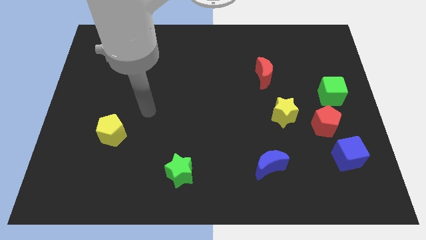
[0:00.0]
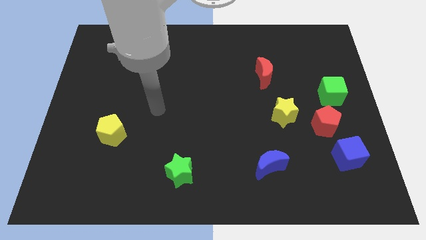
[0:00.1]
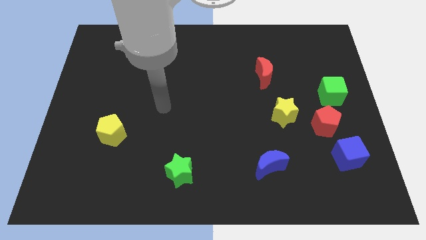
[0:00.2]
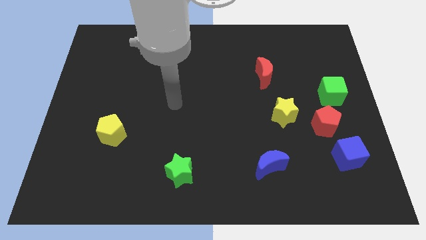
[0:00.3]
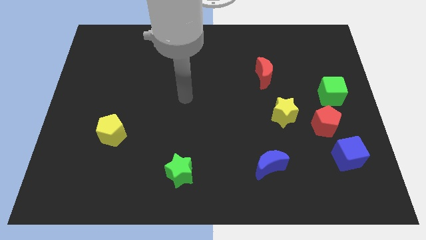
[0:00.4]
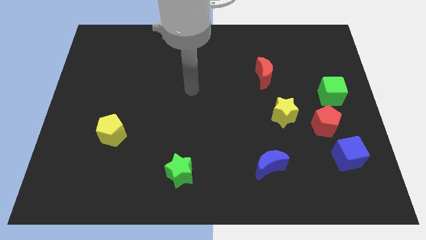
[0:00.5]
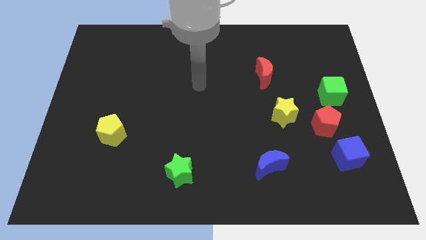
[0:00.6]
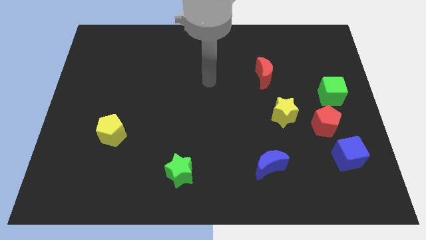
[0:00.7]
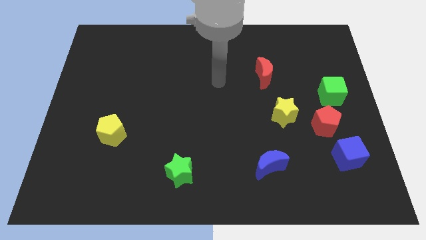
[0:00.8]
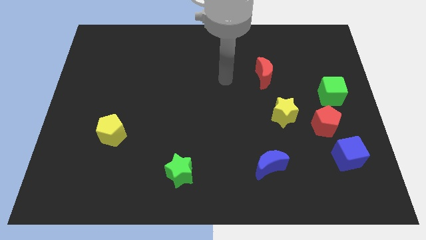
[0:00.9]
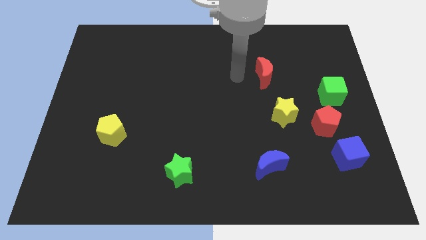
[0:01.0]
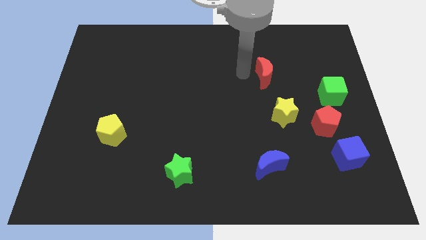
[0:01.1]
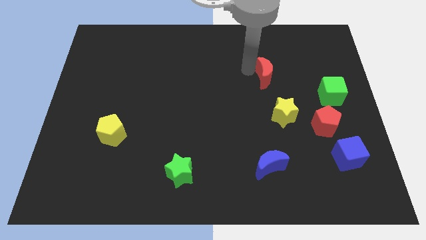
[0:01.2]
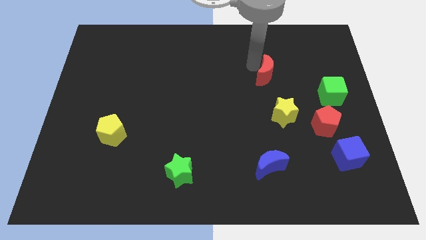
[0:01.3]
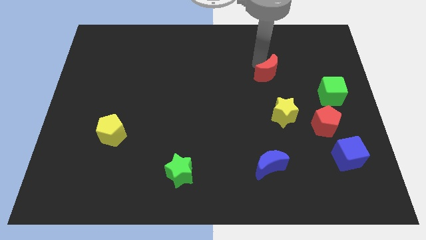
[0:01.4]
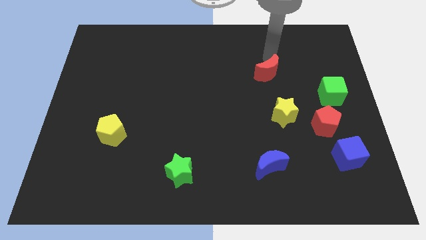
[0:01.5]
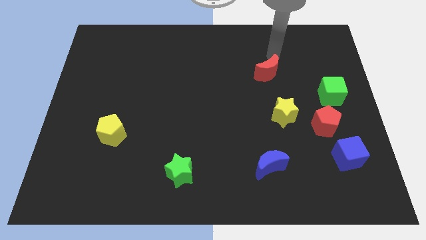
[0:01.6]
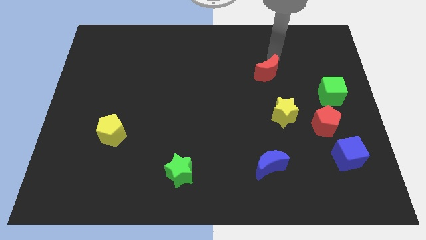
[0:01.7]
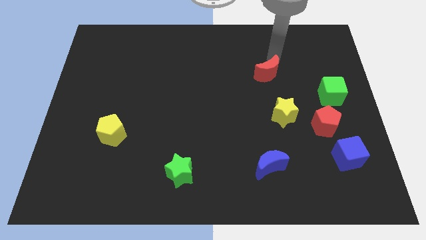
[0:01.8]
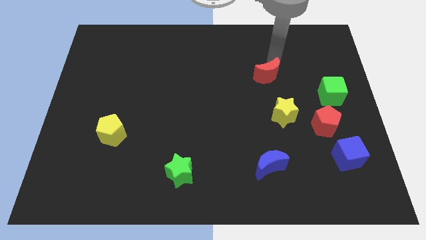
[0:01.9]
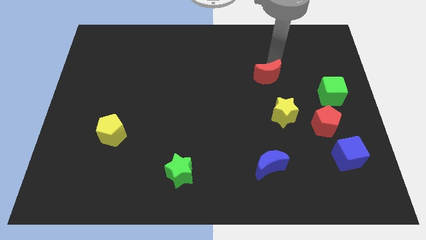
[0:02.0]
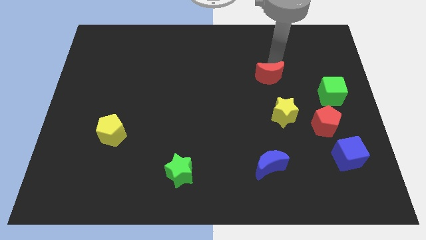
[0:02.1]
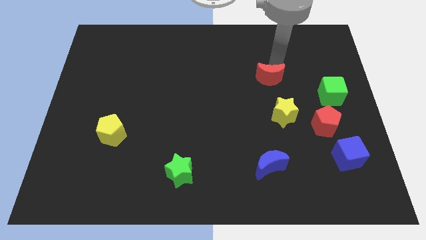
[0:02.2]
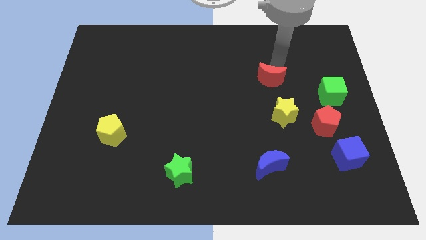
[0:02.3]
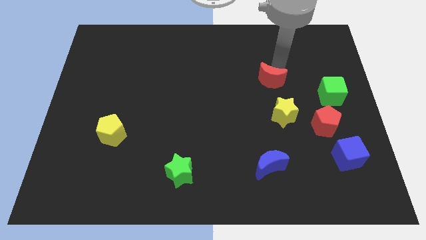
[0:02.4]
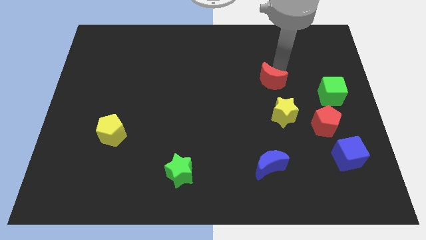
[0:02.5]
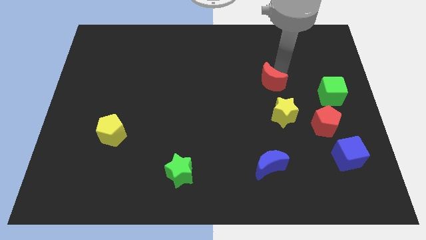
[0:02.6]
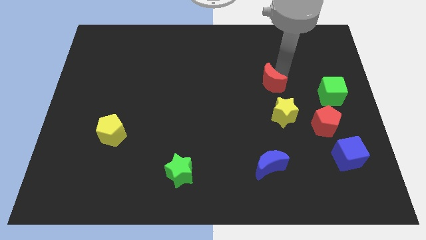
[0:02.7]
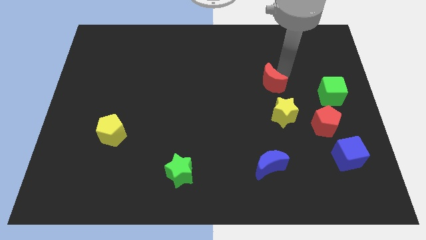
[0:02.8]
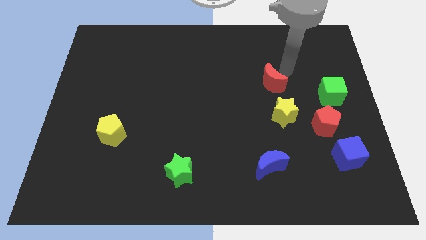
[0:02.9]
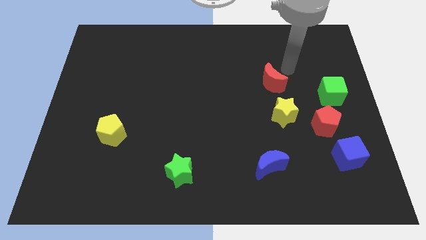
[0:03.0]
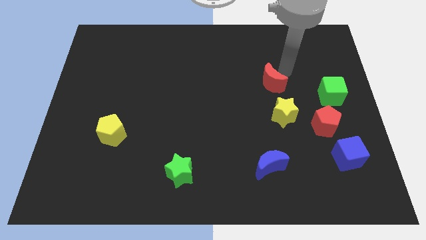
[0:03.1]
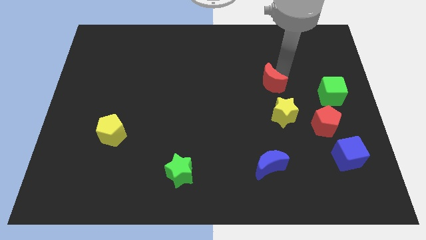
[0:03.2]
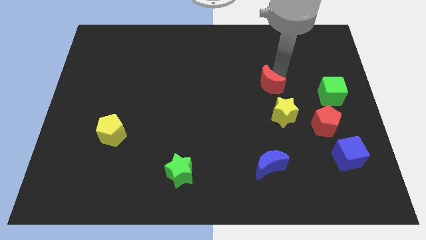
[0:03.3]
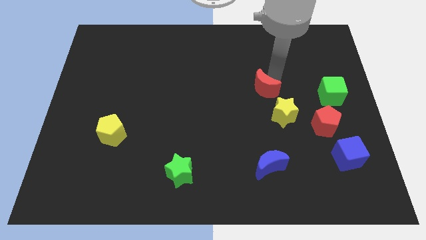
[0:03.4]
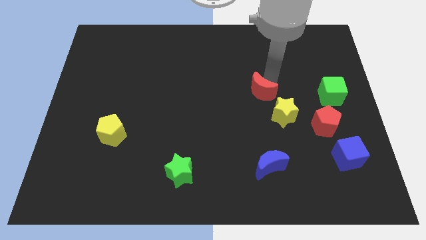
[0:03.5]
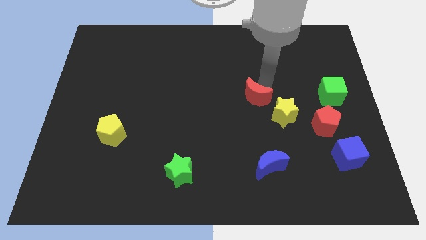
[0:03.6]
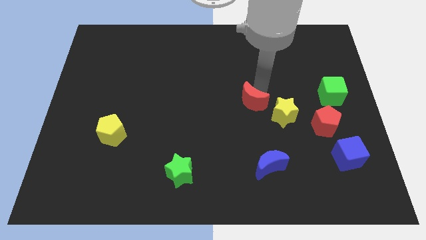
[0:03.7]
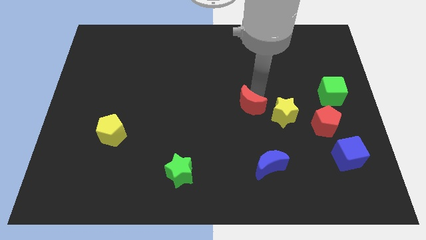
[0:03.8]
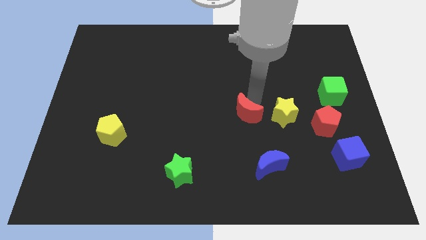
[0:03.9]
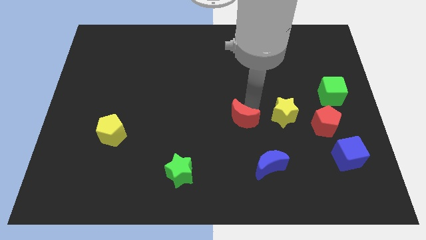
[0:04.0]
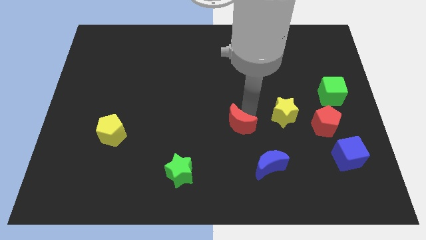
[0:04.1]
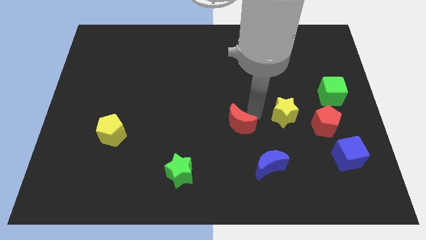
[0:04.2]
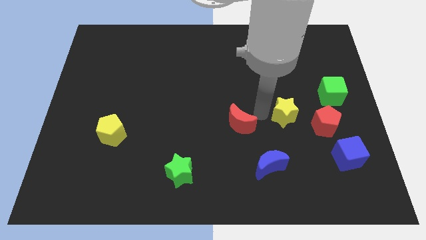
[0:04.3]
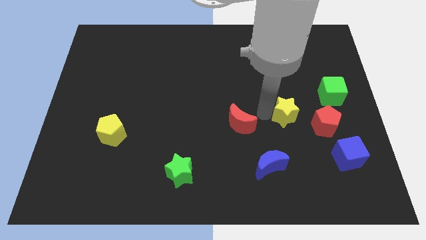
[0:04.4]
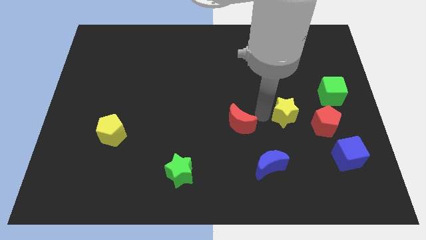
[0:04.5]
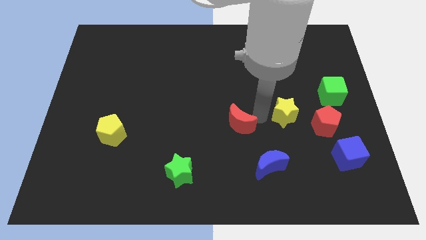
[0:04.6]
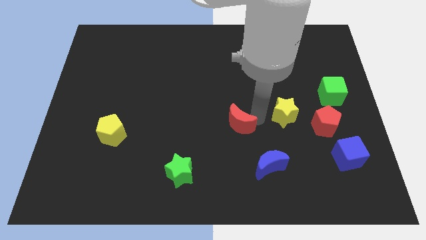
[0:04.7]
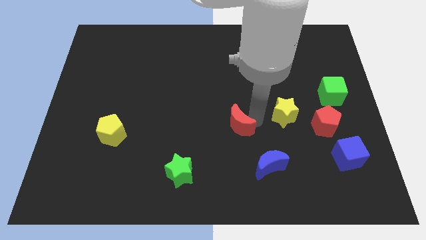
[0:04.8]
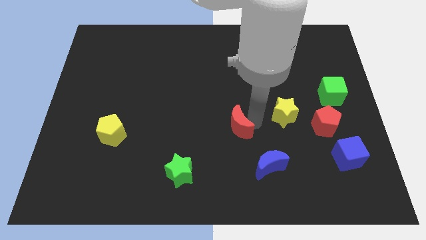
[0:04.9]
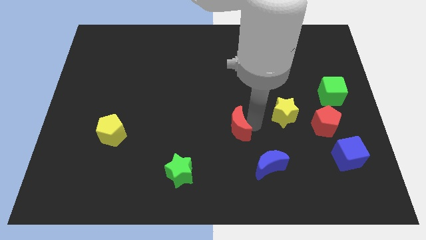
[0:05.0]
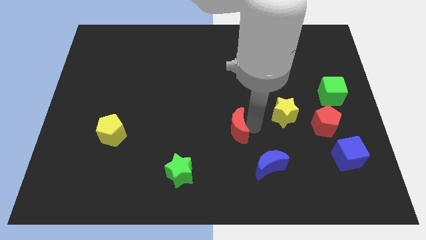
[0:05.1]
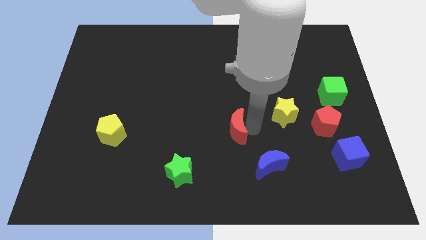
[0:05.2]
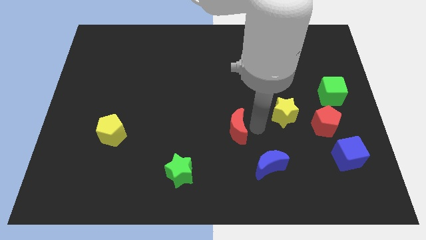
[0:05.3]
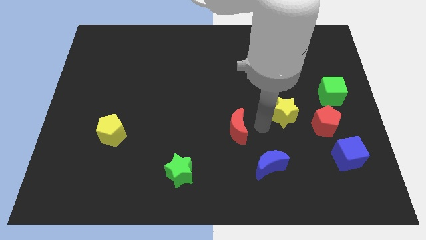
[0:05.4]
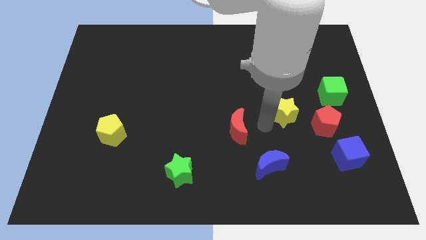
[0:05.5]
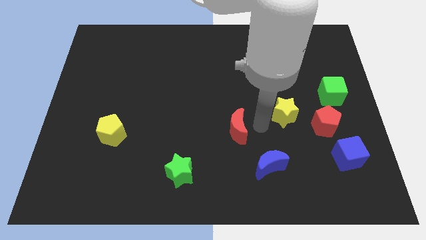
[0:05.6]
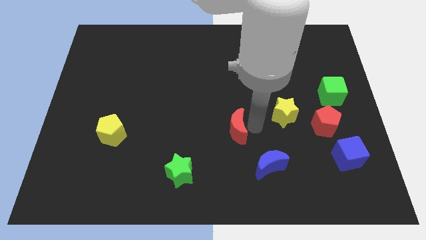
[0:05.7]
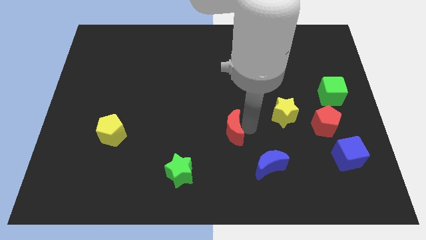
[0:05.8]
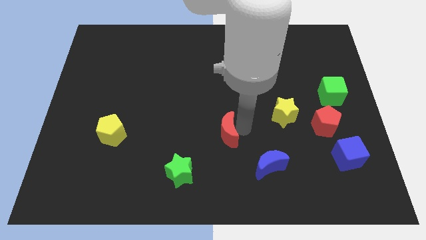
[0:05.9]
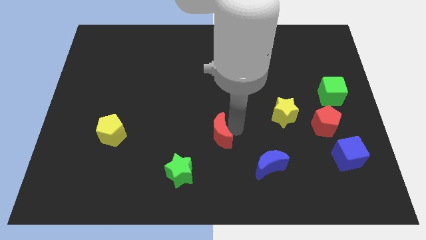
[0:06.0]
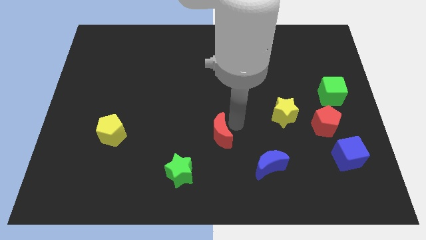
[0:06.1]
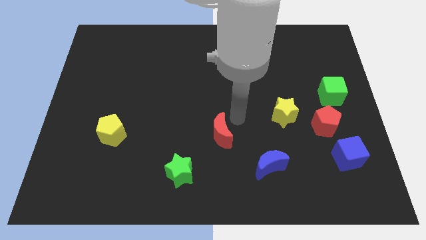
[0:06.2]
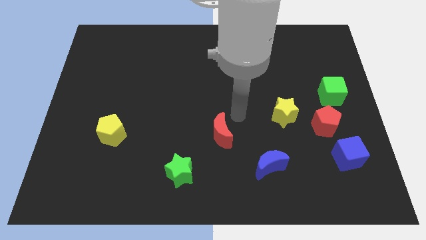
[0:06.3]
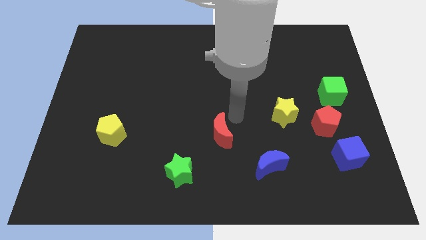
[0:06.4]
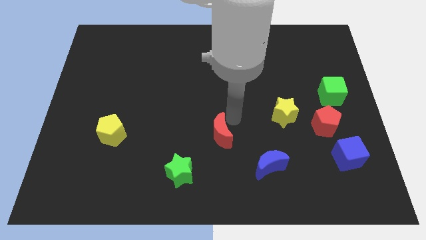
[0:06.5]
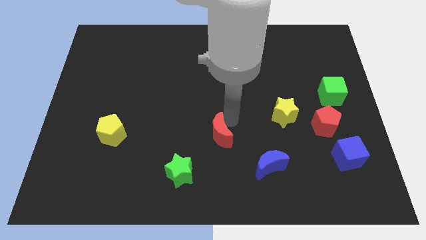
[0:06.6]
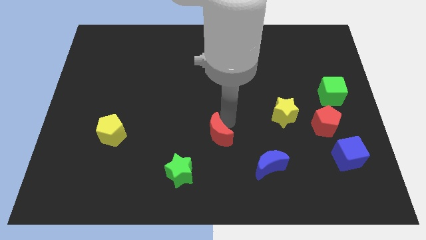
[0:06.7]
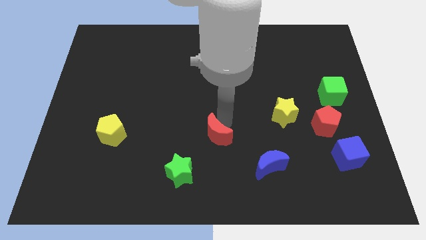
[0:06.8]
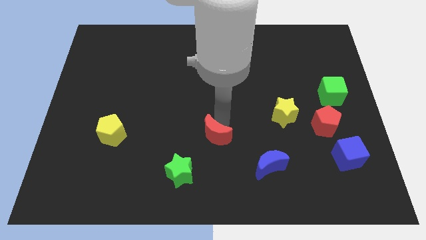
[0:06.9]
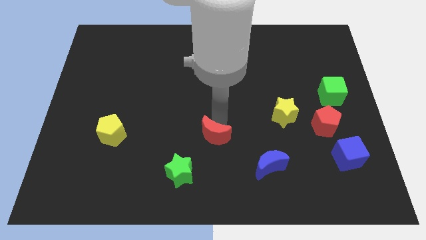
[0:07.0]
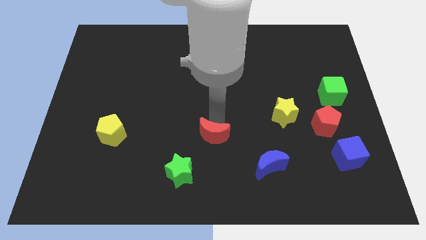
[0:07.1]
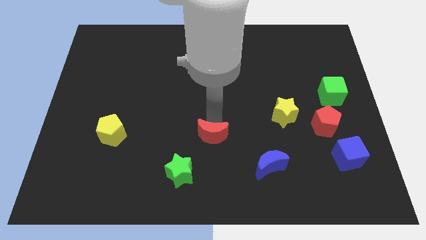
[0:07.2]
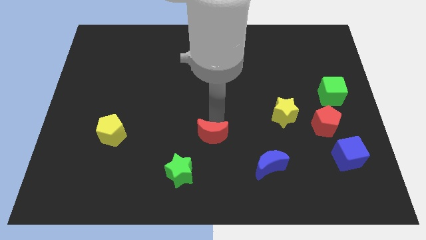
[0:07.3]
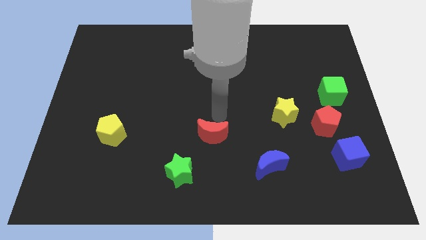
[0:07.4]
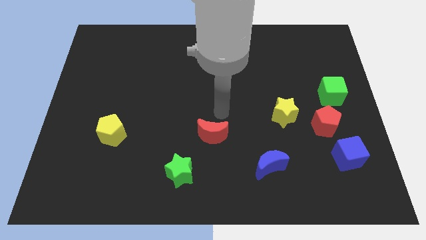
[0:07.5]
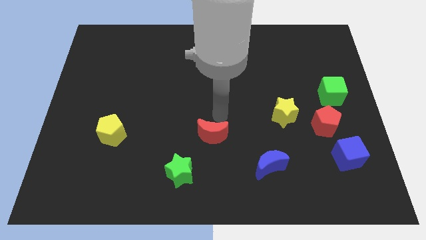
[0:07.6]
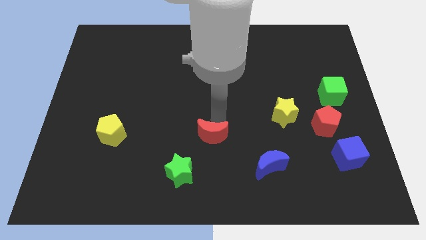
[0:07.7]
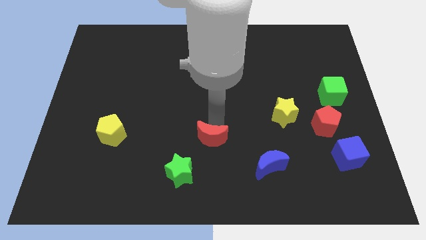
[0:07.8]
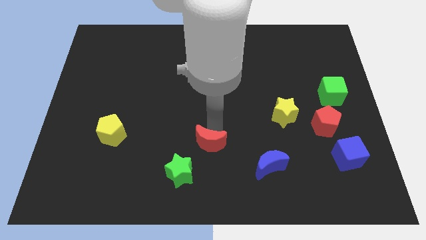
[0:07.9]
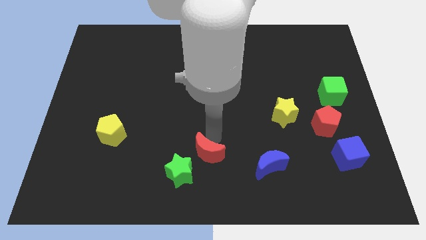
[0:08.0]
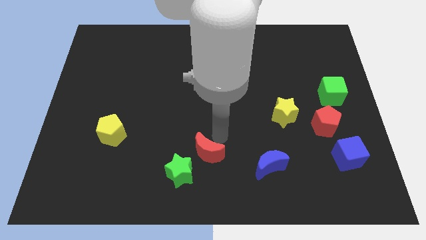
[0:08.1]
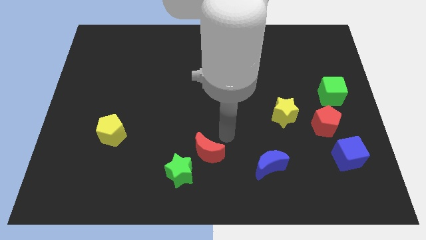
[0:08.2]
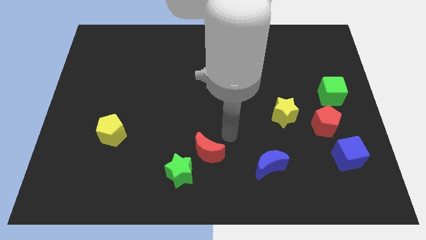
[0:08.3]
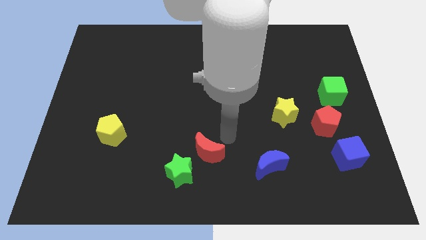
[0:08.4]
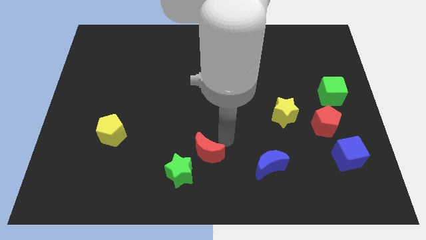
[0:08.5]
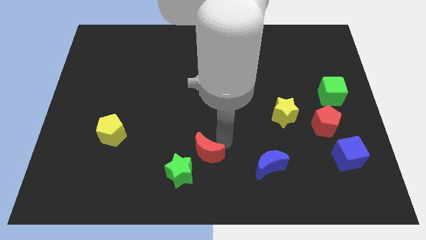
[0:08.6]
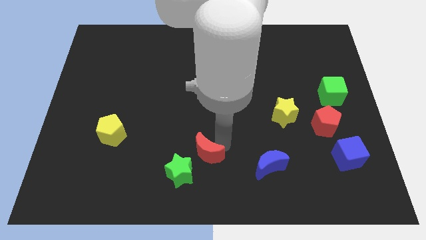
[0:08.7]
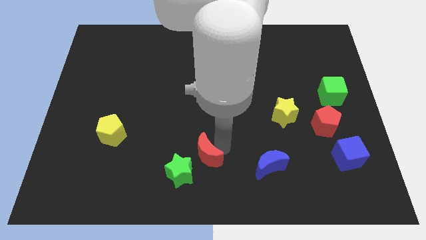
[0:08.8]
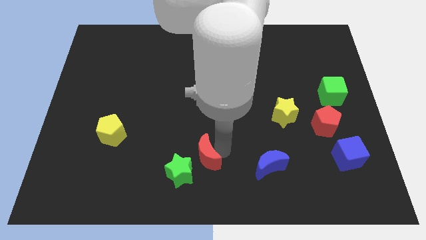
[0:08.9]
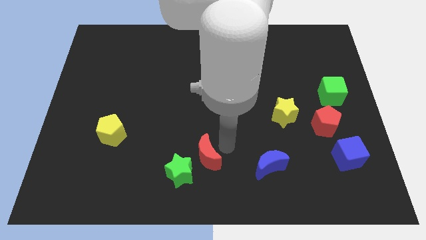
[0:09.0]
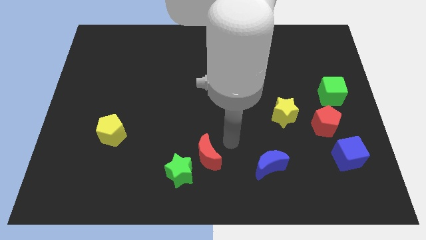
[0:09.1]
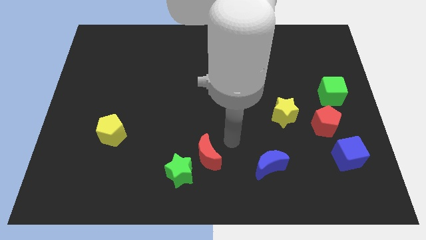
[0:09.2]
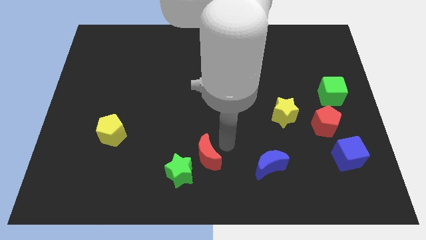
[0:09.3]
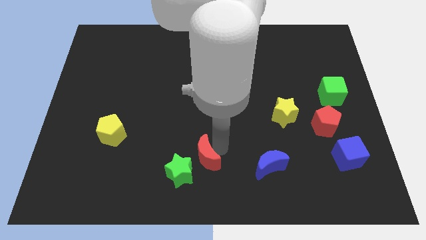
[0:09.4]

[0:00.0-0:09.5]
move the red moon to the green star
